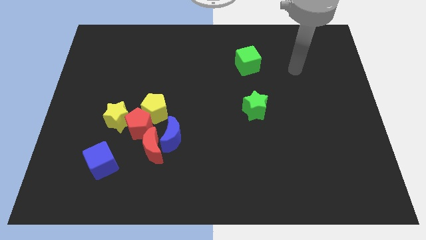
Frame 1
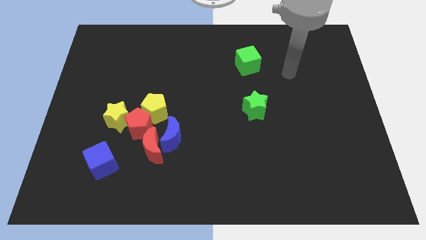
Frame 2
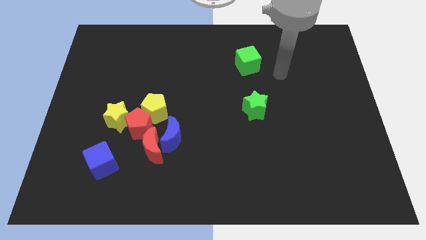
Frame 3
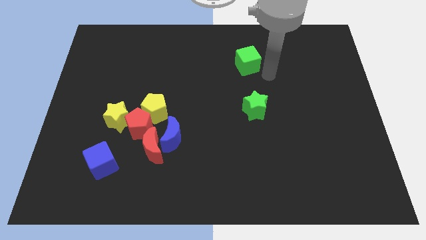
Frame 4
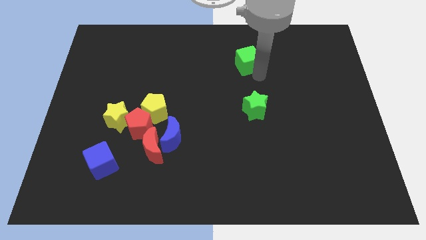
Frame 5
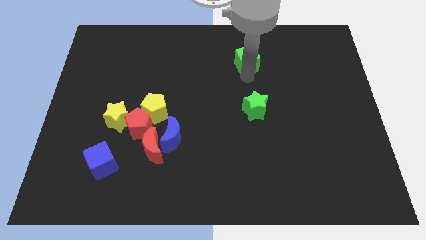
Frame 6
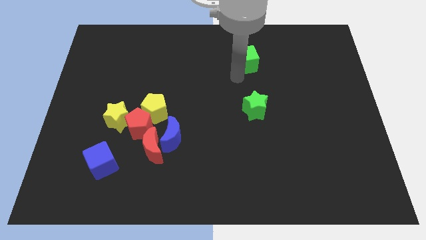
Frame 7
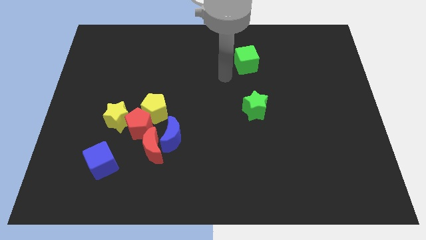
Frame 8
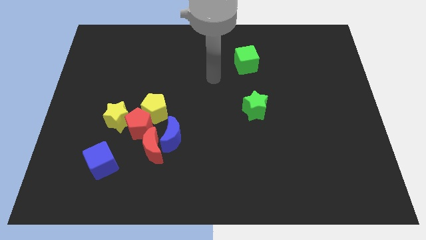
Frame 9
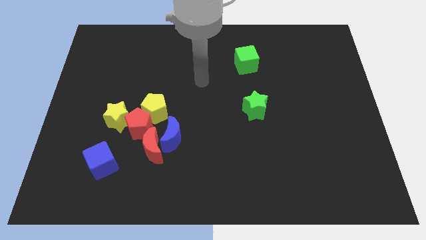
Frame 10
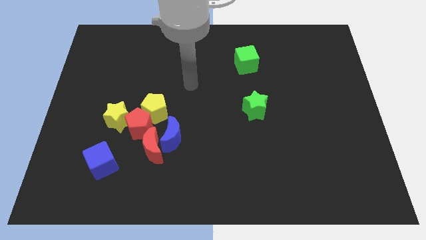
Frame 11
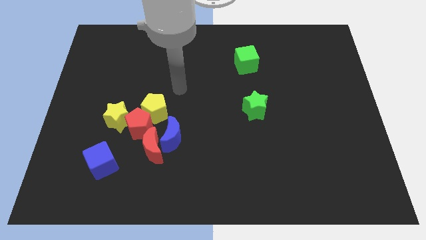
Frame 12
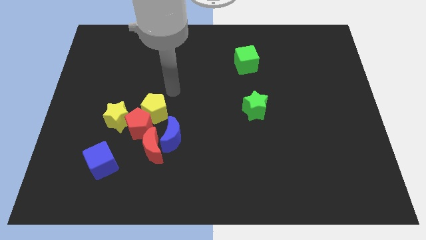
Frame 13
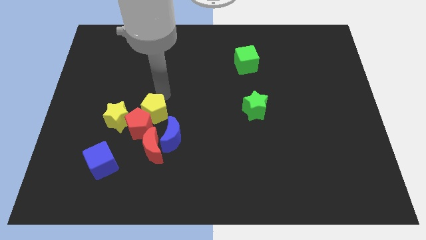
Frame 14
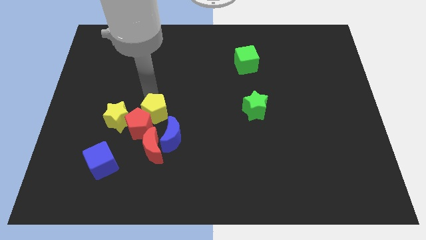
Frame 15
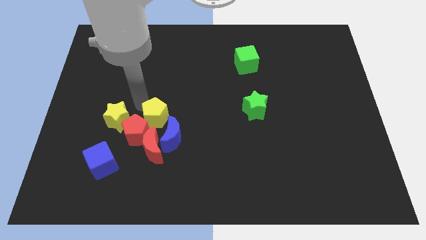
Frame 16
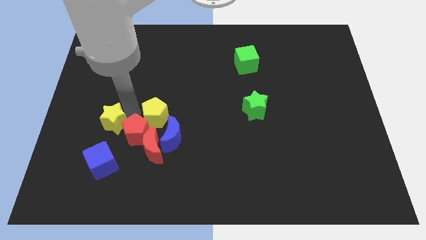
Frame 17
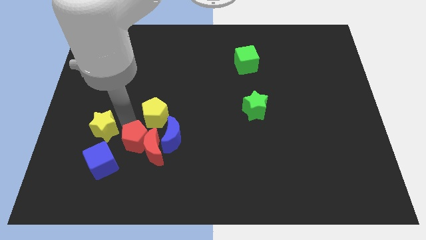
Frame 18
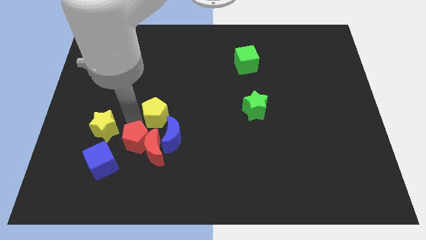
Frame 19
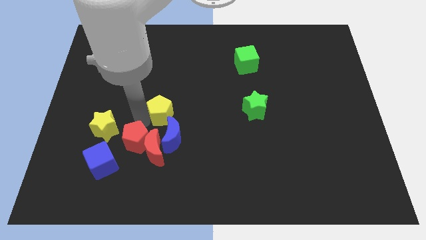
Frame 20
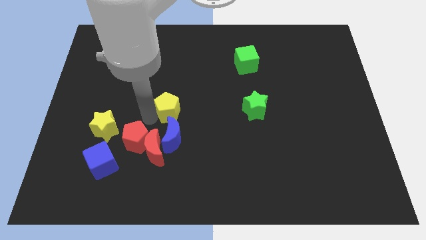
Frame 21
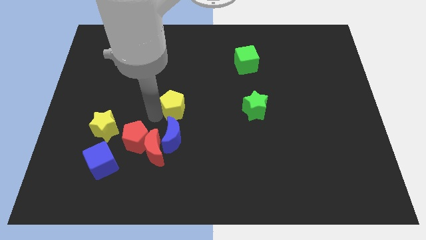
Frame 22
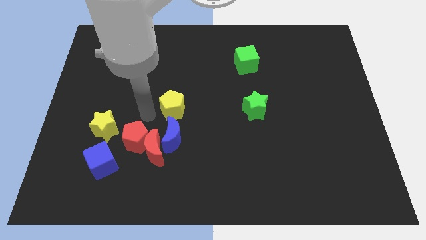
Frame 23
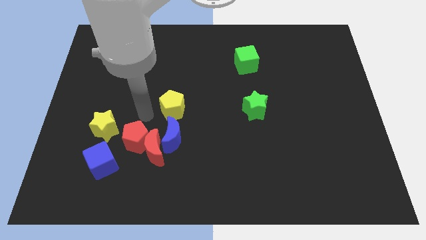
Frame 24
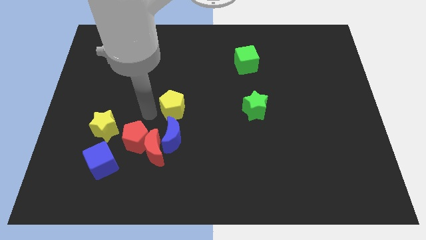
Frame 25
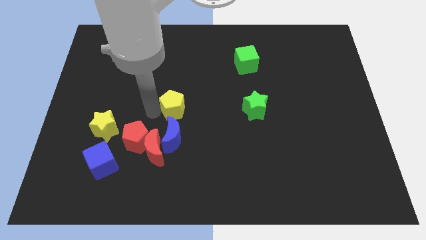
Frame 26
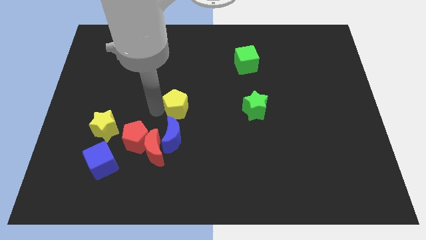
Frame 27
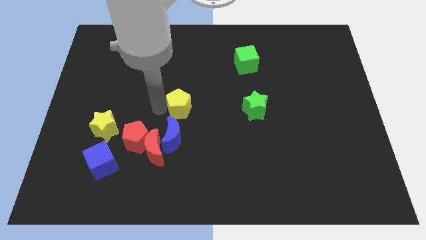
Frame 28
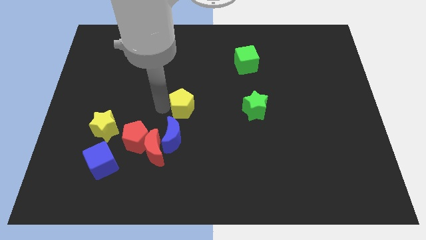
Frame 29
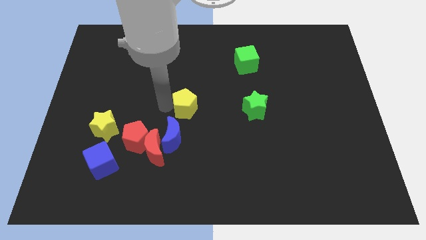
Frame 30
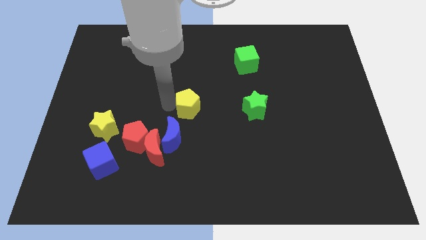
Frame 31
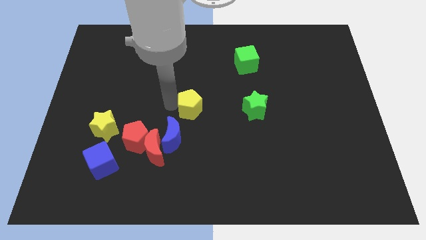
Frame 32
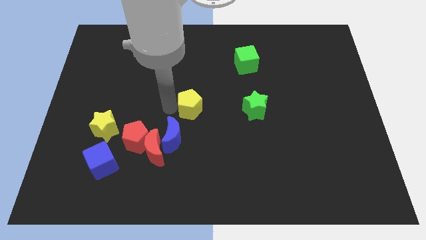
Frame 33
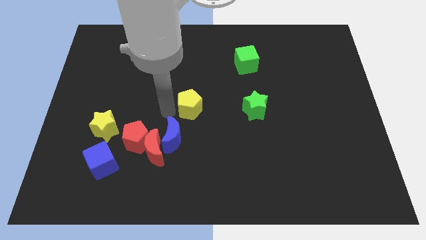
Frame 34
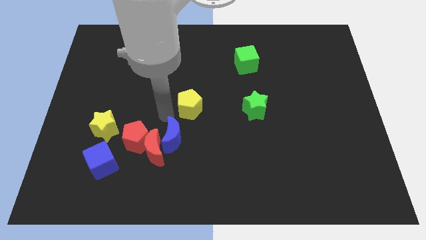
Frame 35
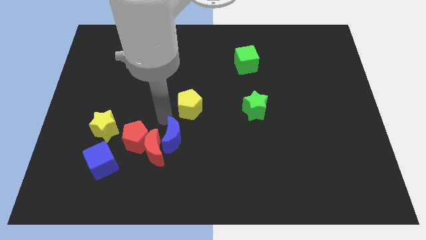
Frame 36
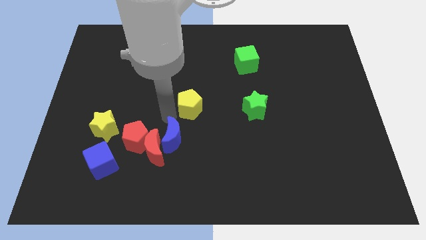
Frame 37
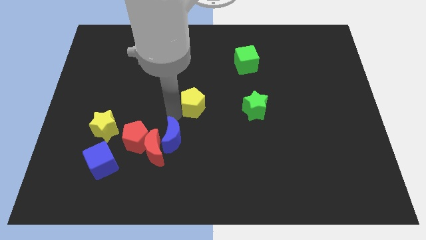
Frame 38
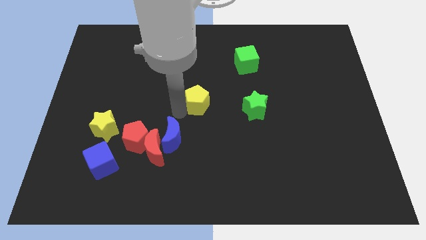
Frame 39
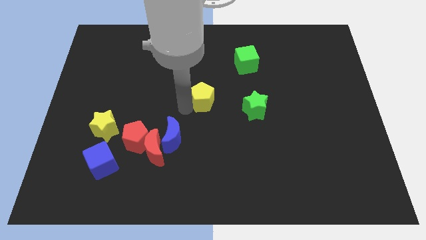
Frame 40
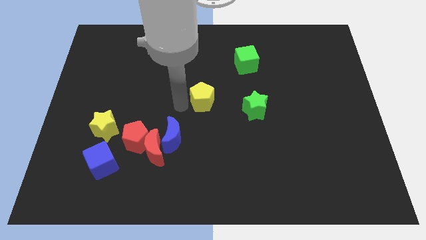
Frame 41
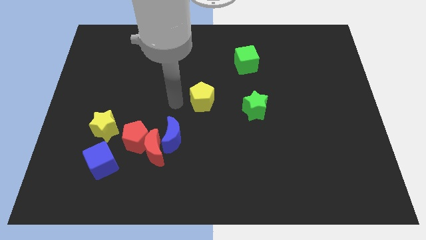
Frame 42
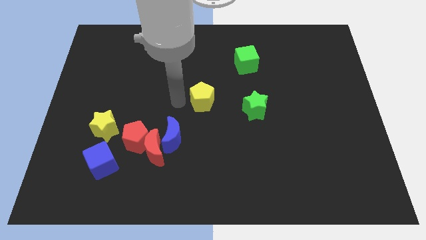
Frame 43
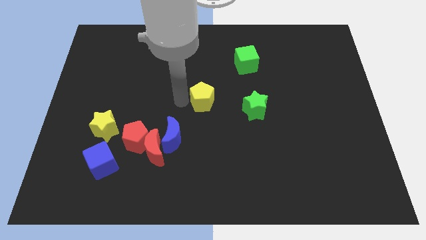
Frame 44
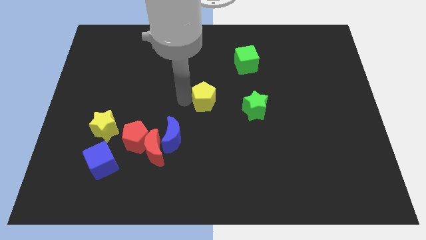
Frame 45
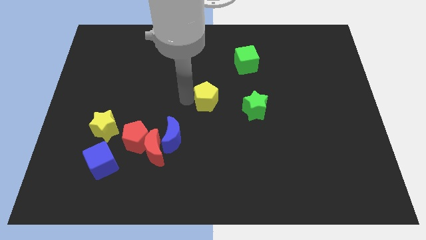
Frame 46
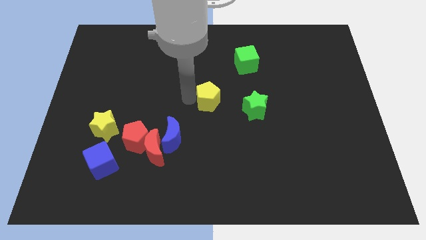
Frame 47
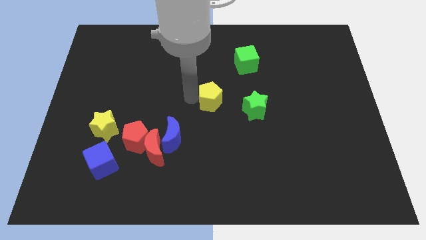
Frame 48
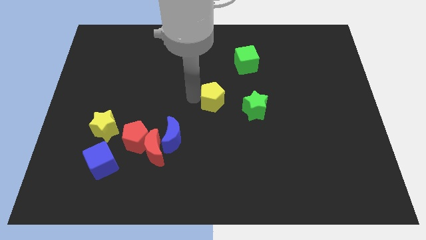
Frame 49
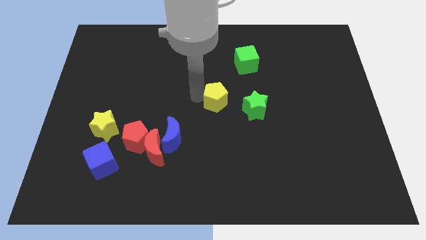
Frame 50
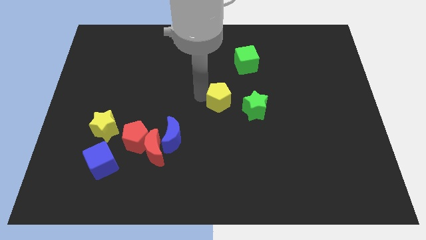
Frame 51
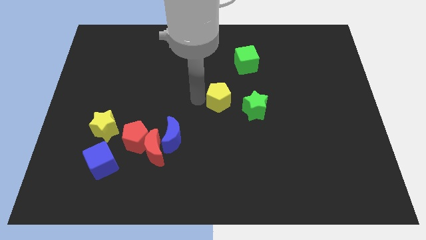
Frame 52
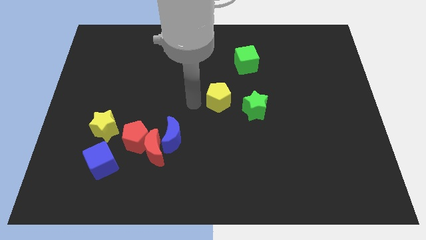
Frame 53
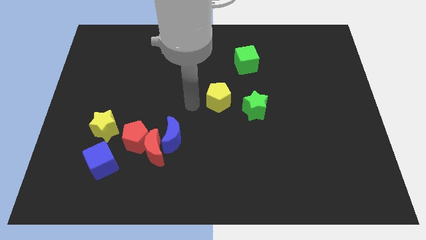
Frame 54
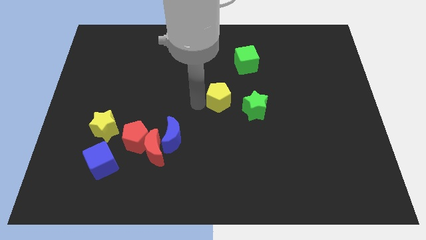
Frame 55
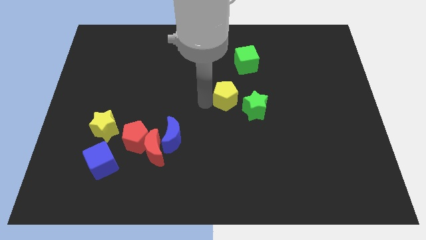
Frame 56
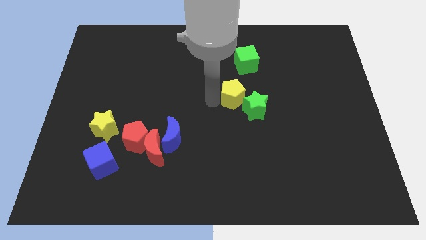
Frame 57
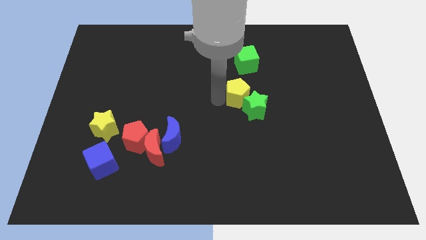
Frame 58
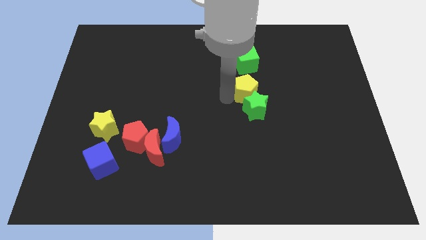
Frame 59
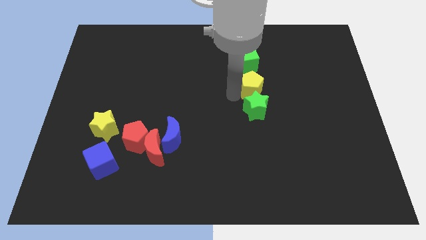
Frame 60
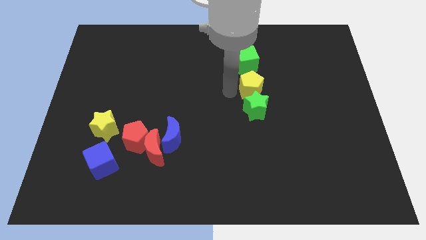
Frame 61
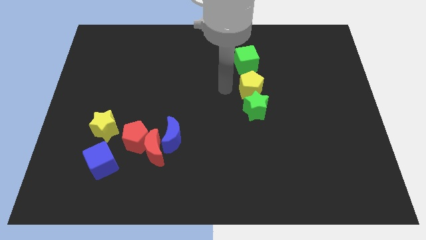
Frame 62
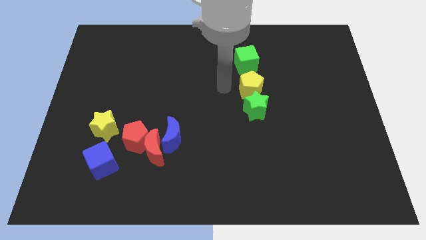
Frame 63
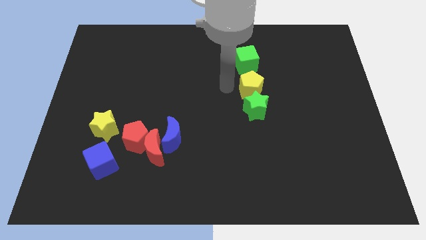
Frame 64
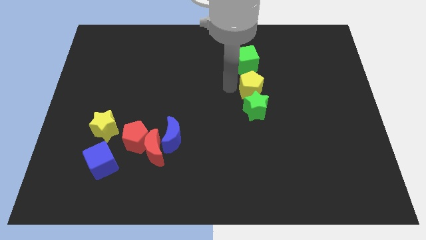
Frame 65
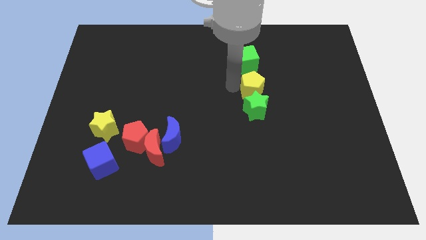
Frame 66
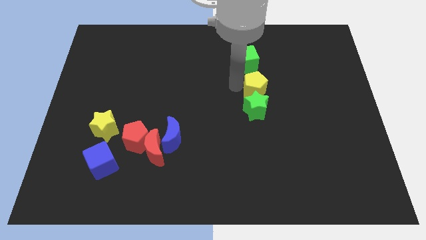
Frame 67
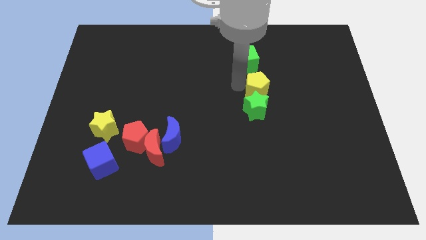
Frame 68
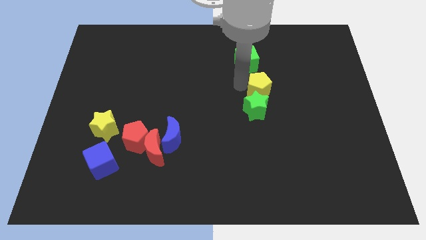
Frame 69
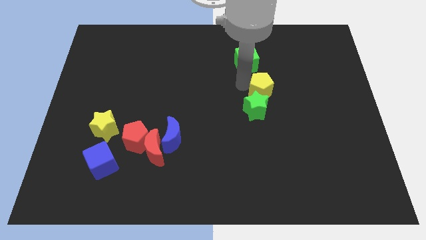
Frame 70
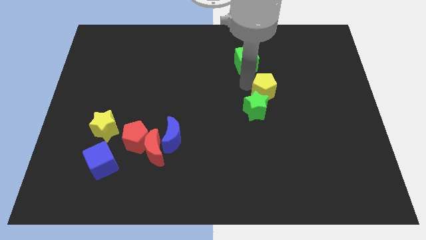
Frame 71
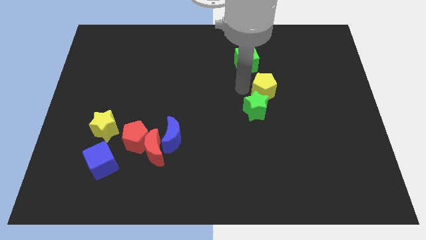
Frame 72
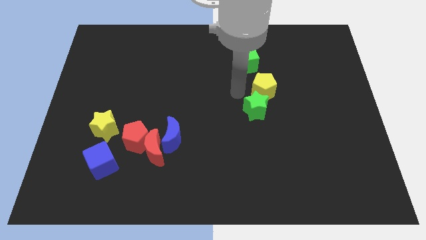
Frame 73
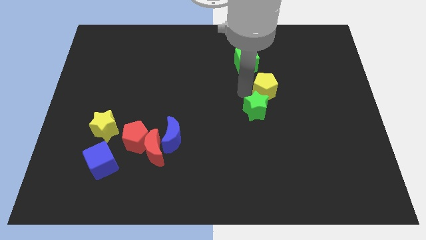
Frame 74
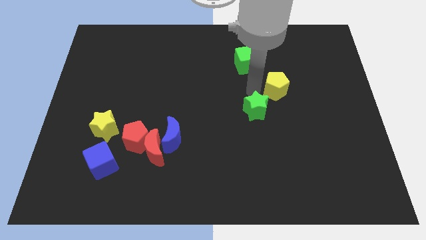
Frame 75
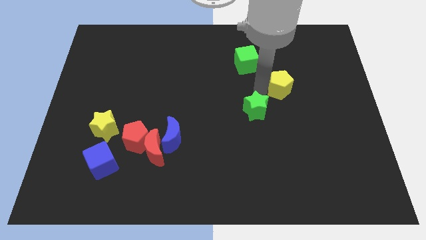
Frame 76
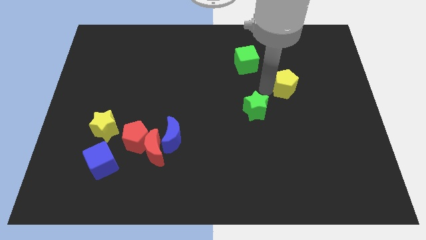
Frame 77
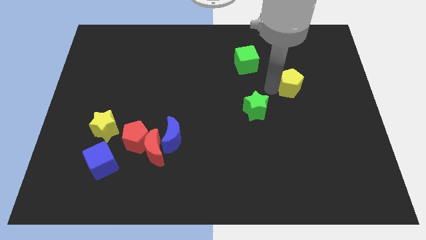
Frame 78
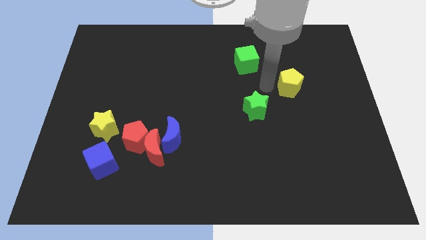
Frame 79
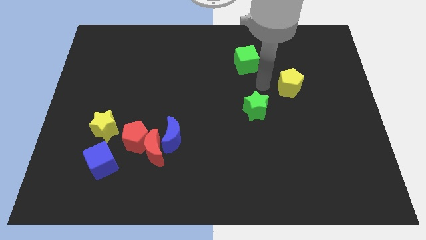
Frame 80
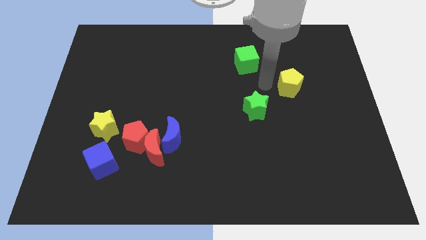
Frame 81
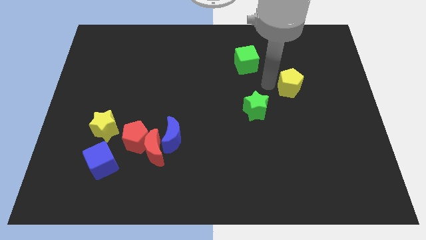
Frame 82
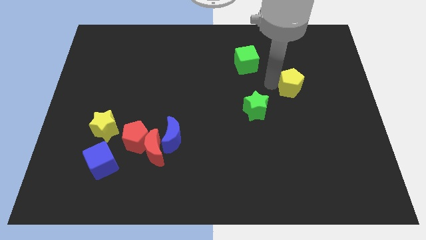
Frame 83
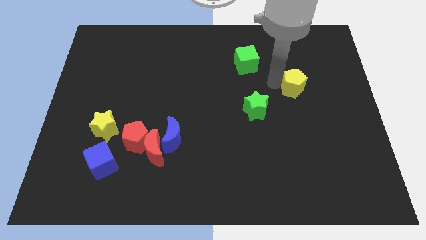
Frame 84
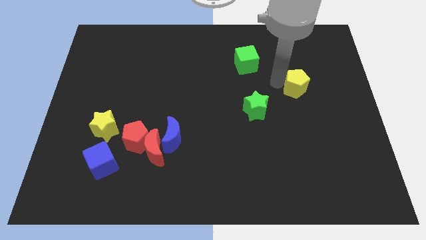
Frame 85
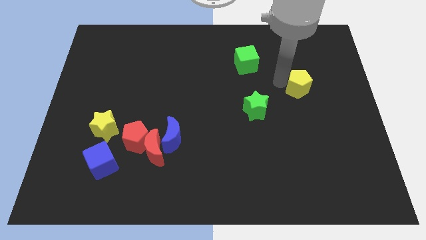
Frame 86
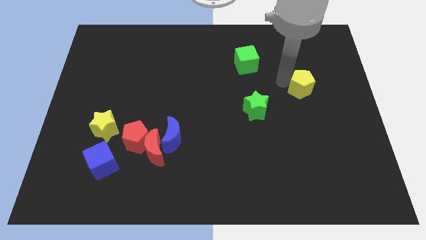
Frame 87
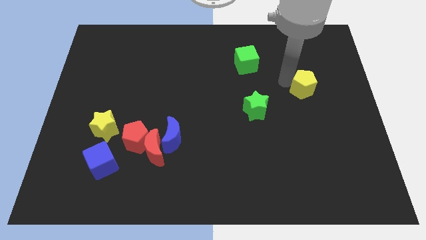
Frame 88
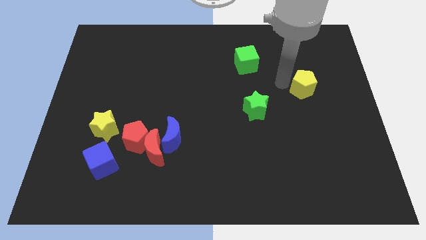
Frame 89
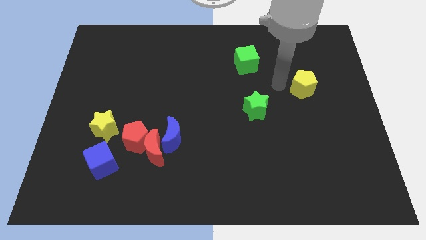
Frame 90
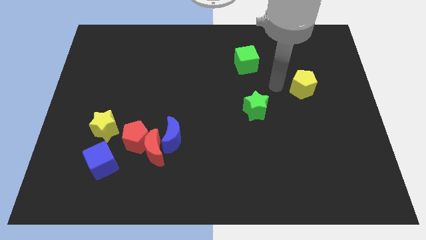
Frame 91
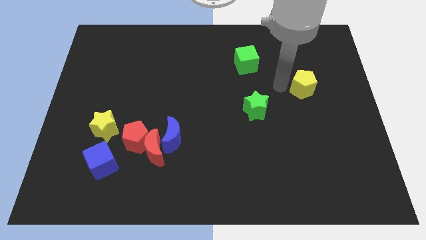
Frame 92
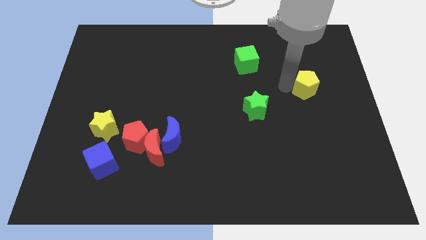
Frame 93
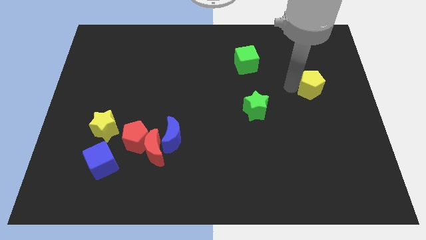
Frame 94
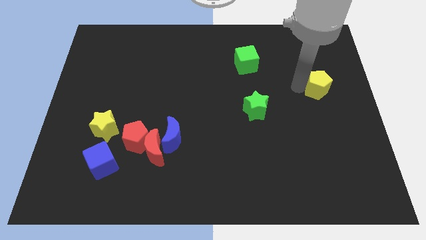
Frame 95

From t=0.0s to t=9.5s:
move the yellow pentagon to the right side
